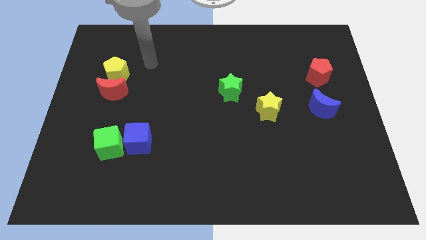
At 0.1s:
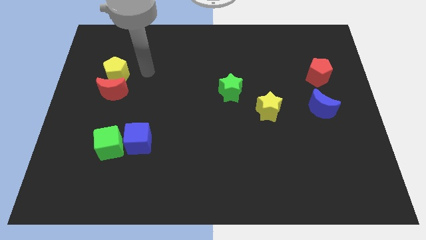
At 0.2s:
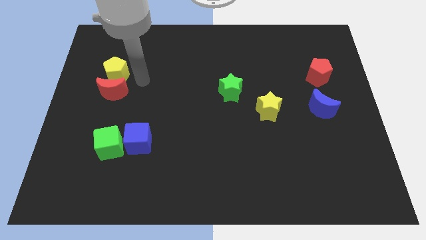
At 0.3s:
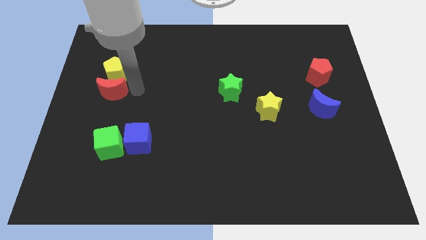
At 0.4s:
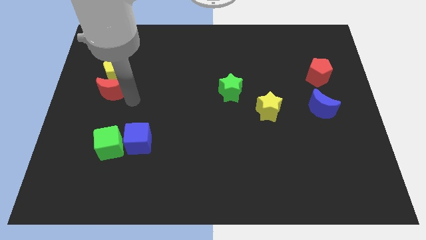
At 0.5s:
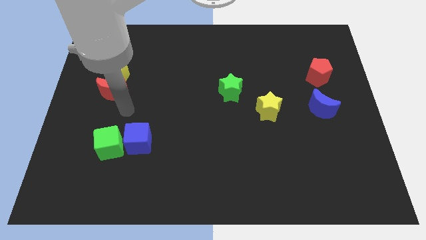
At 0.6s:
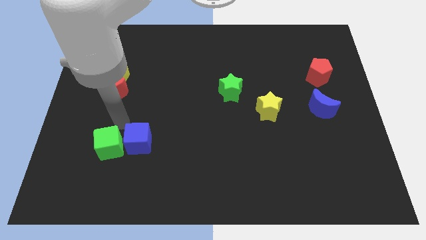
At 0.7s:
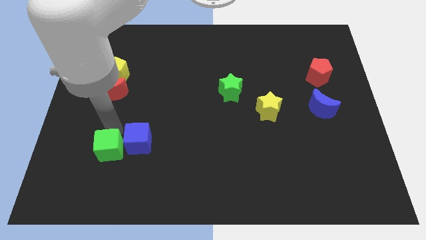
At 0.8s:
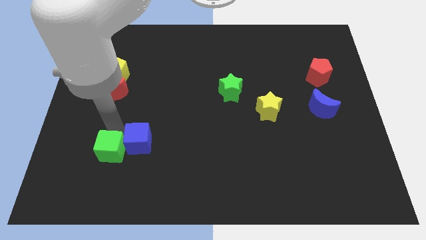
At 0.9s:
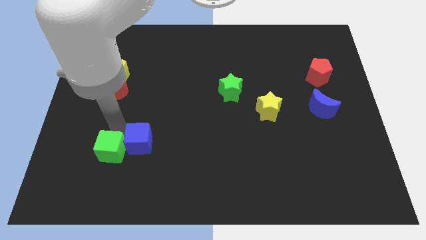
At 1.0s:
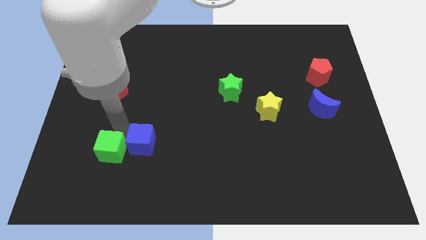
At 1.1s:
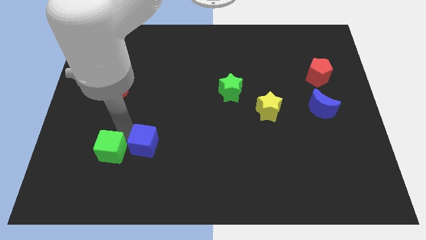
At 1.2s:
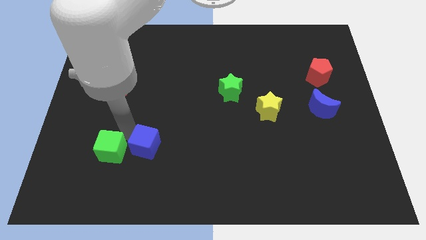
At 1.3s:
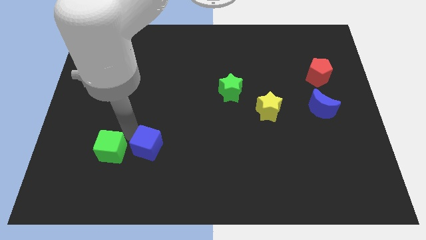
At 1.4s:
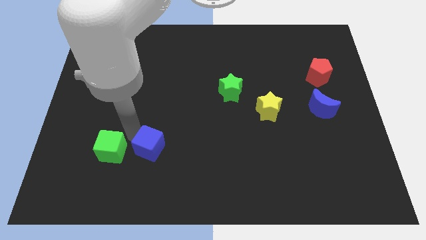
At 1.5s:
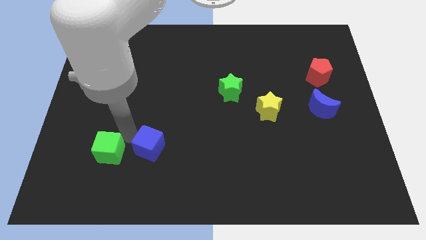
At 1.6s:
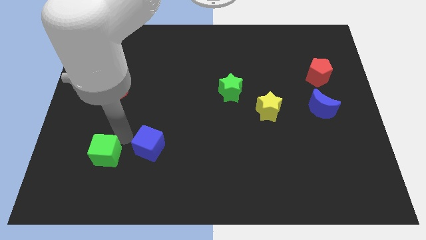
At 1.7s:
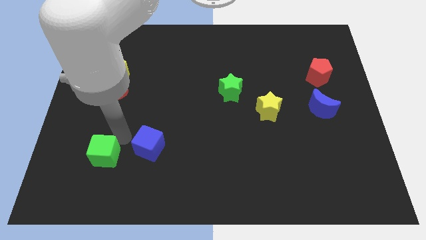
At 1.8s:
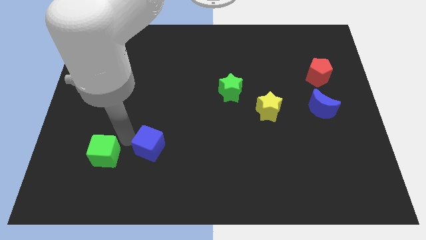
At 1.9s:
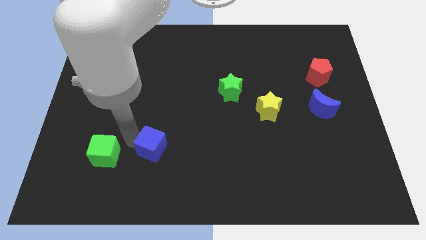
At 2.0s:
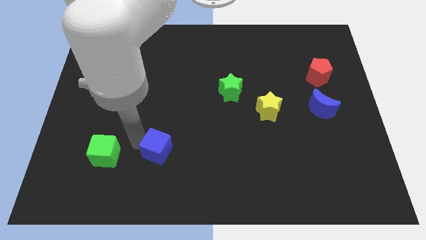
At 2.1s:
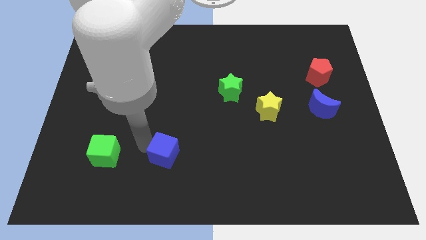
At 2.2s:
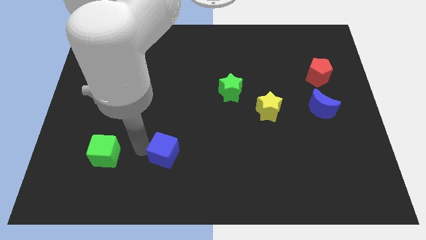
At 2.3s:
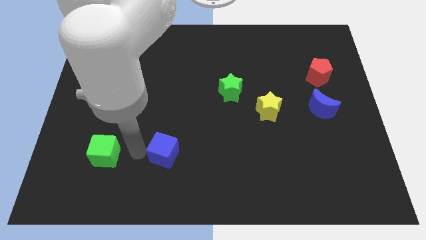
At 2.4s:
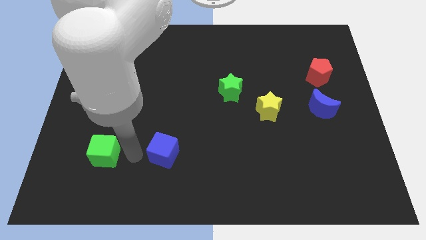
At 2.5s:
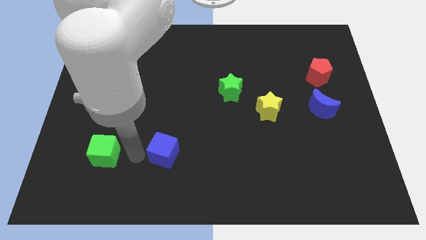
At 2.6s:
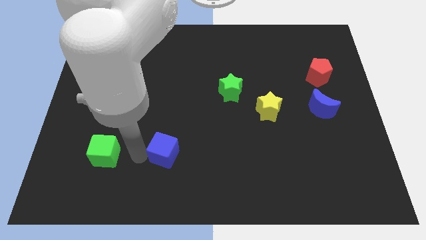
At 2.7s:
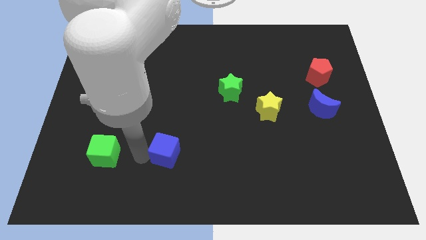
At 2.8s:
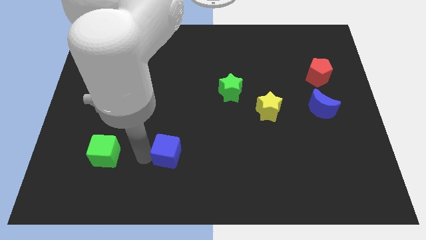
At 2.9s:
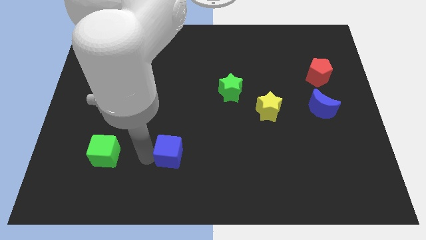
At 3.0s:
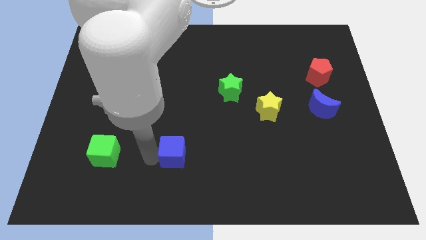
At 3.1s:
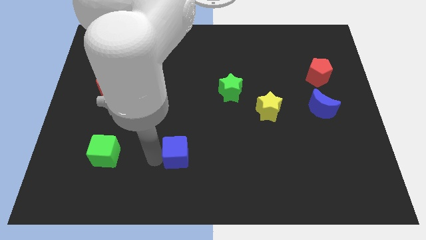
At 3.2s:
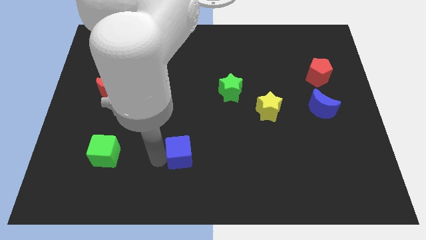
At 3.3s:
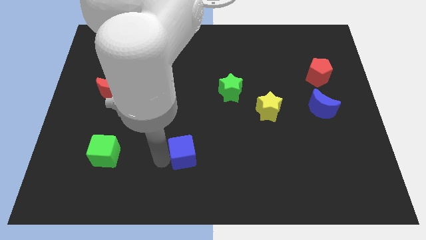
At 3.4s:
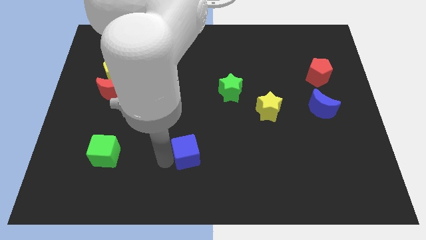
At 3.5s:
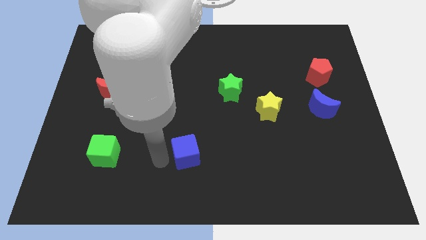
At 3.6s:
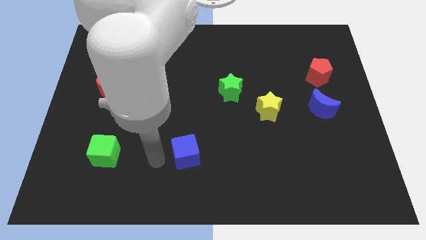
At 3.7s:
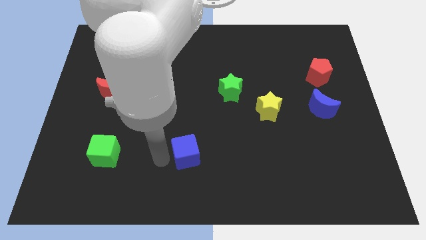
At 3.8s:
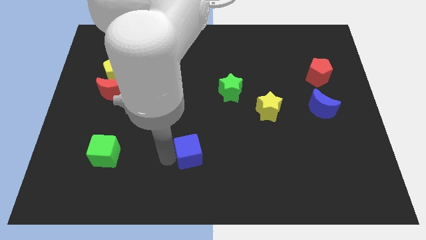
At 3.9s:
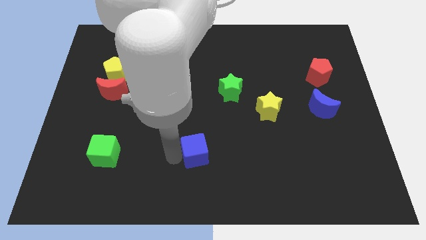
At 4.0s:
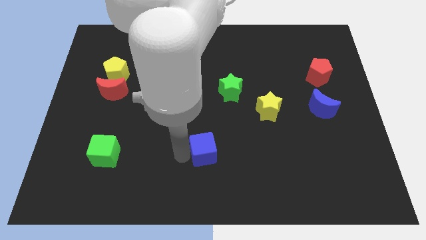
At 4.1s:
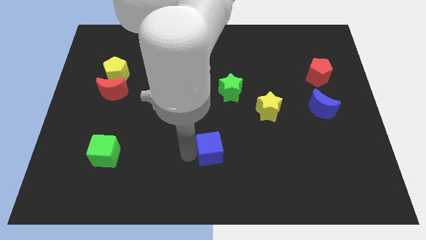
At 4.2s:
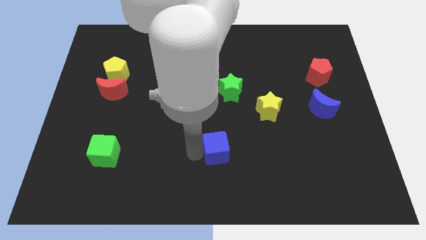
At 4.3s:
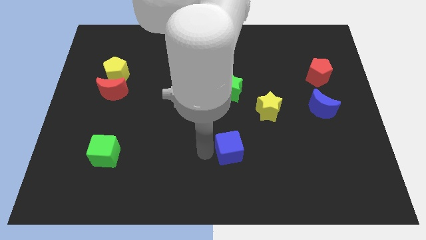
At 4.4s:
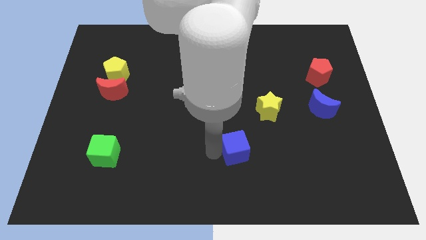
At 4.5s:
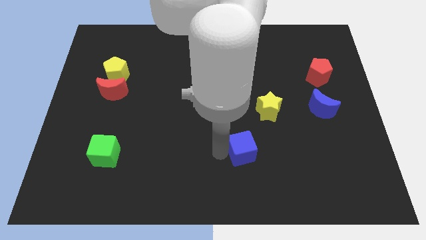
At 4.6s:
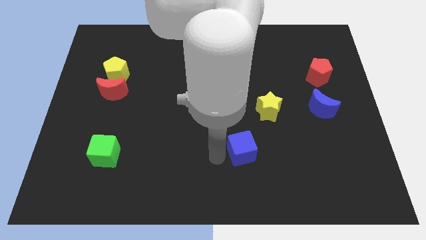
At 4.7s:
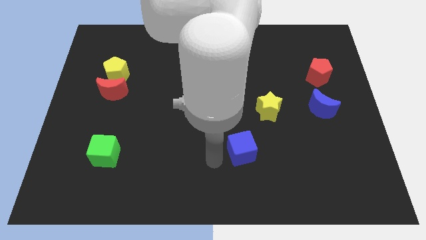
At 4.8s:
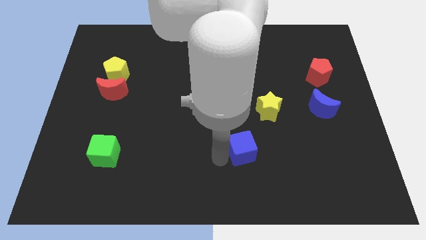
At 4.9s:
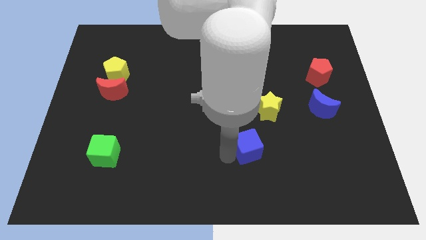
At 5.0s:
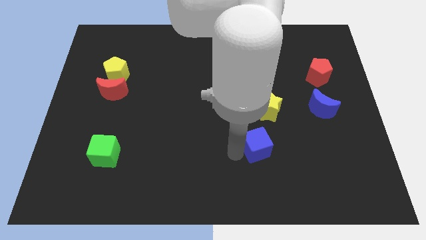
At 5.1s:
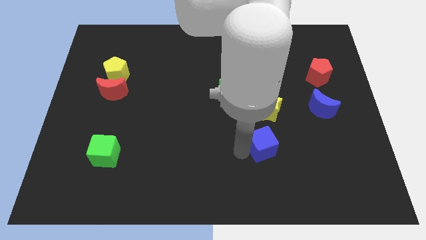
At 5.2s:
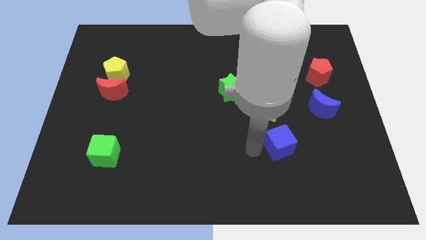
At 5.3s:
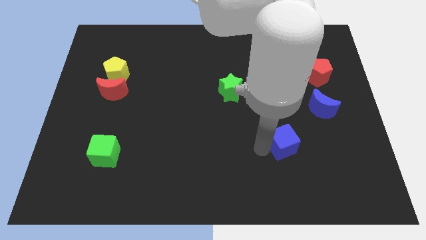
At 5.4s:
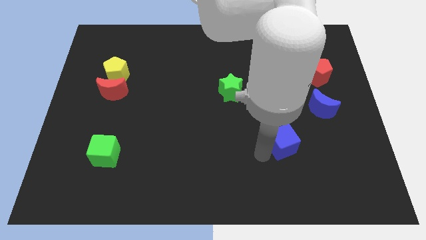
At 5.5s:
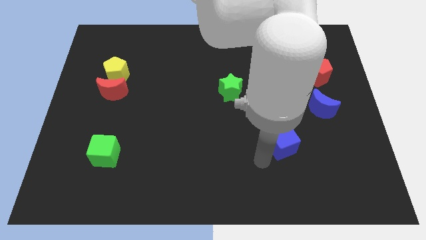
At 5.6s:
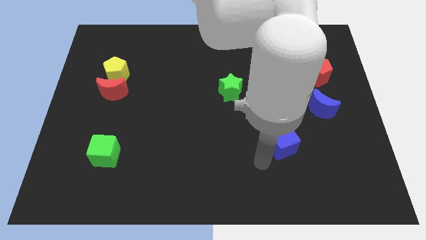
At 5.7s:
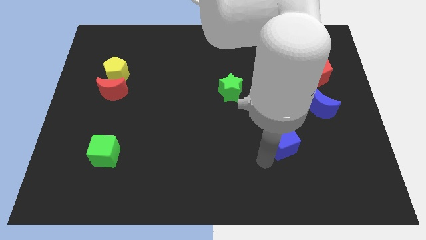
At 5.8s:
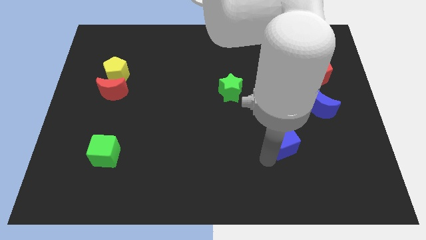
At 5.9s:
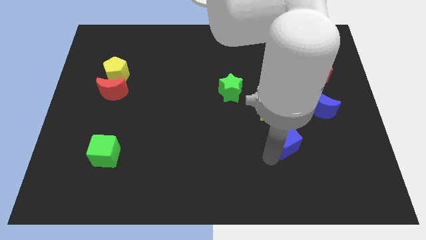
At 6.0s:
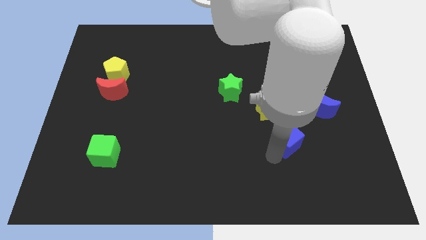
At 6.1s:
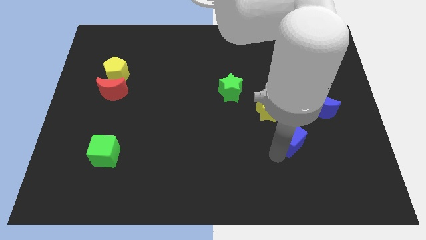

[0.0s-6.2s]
slide the blue cube to the bottom left of the blue moon

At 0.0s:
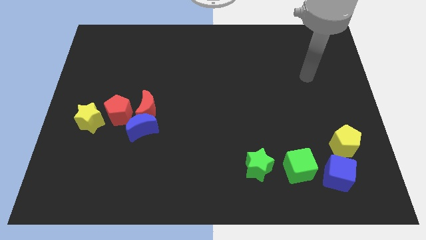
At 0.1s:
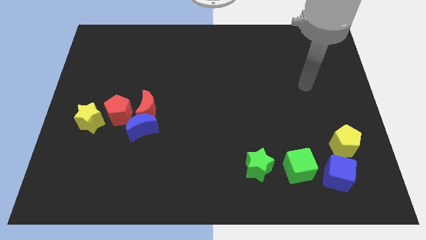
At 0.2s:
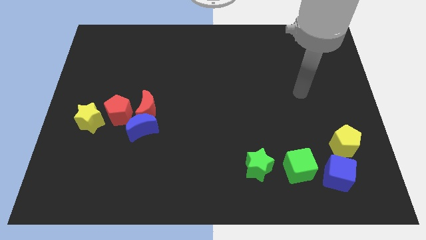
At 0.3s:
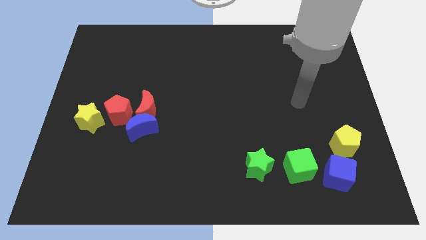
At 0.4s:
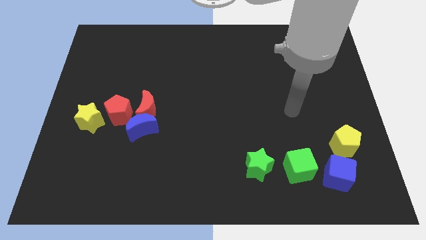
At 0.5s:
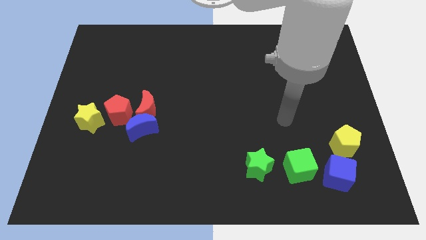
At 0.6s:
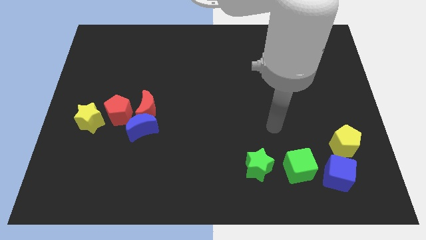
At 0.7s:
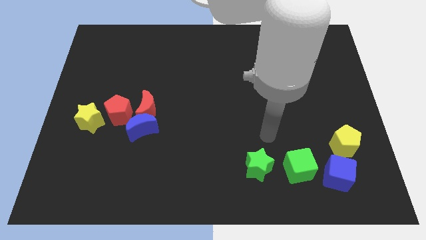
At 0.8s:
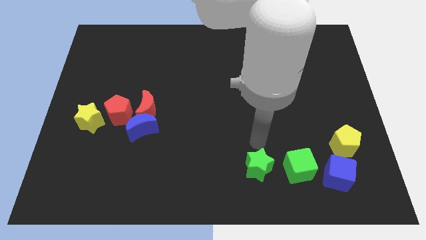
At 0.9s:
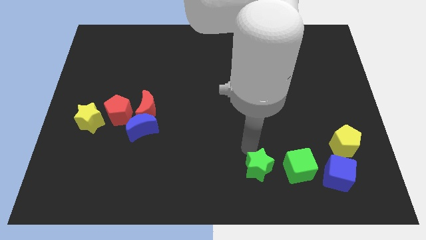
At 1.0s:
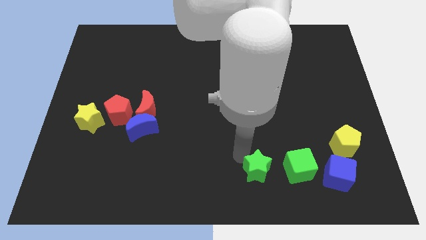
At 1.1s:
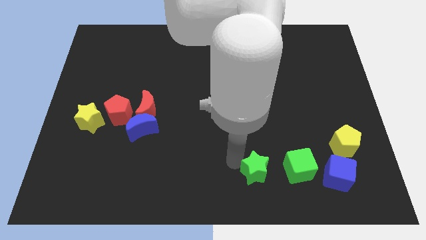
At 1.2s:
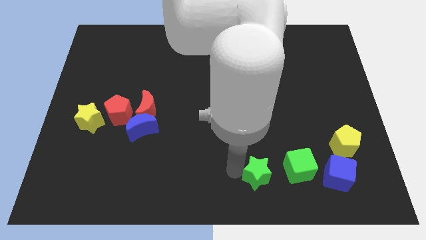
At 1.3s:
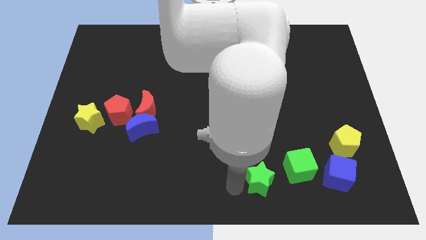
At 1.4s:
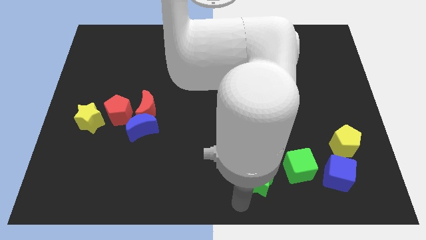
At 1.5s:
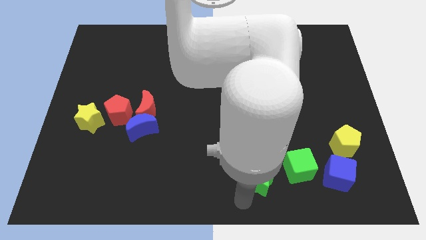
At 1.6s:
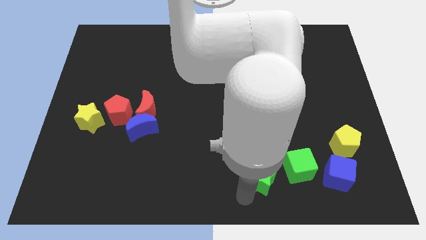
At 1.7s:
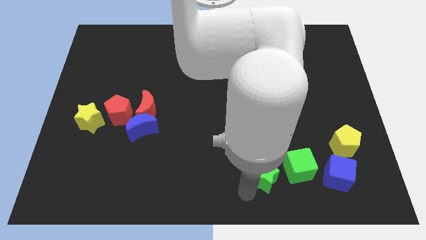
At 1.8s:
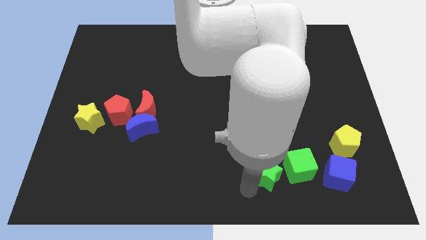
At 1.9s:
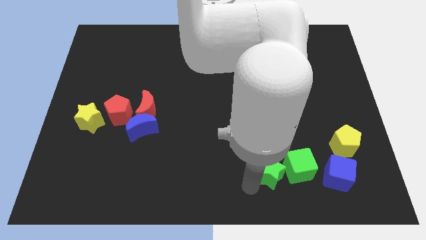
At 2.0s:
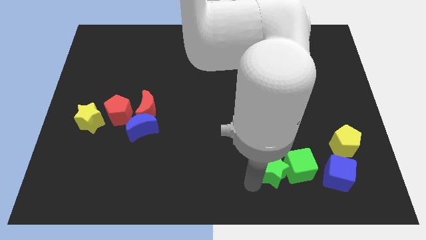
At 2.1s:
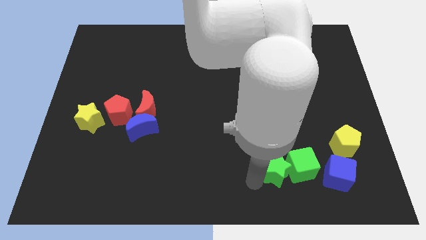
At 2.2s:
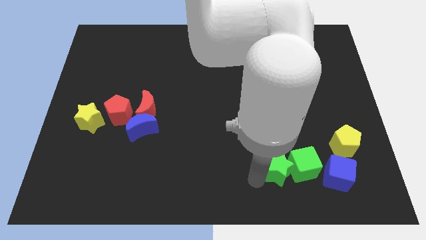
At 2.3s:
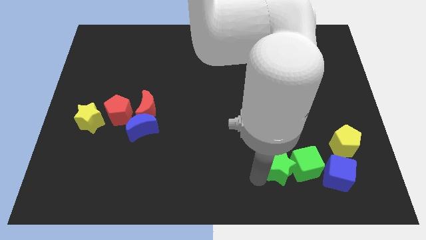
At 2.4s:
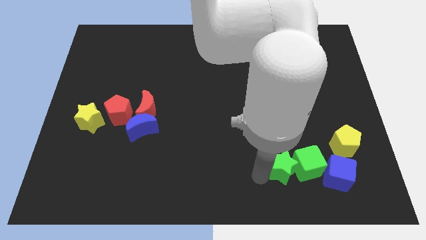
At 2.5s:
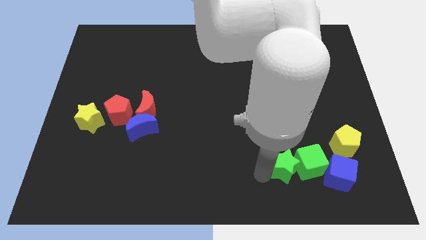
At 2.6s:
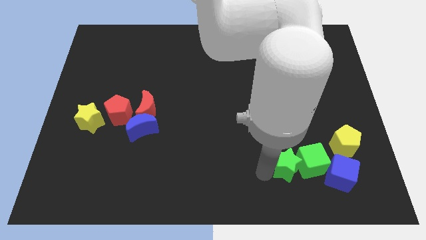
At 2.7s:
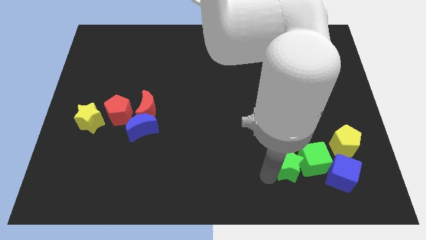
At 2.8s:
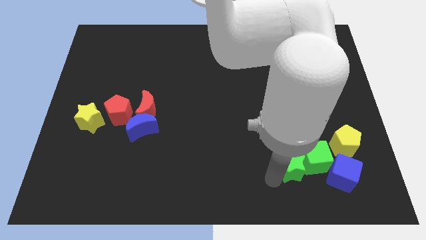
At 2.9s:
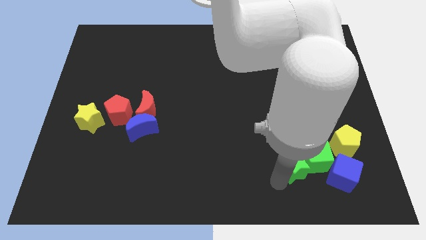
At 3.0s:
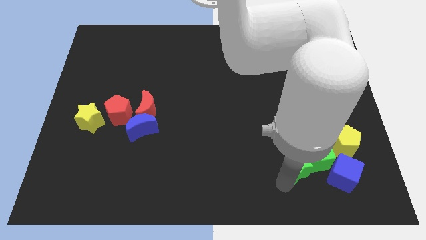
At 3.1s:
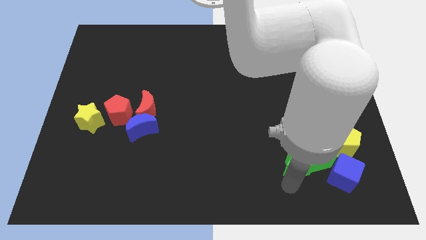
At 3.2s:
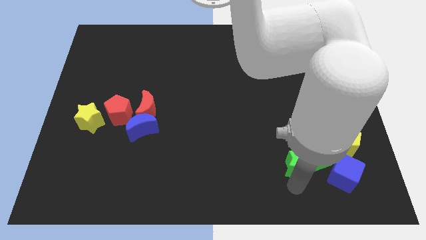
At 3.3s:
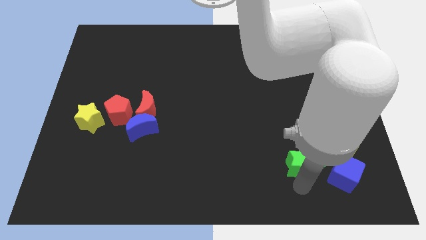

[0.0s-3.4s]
move the green star to the left of the yellow pentagon
